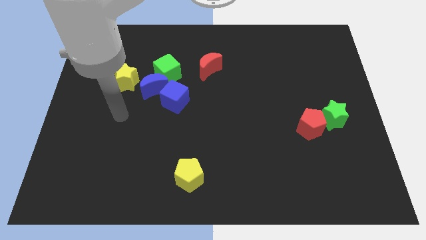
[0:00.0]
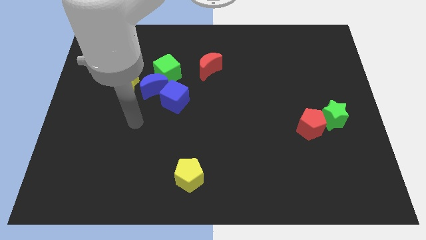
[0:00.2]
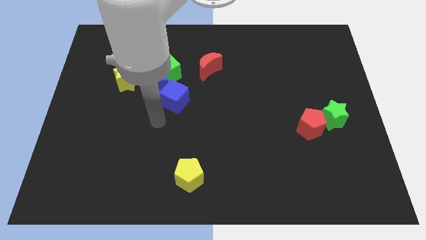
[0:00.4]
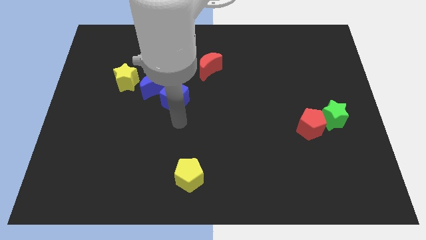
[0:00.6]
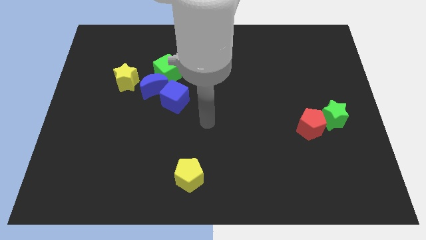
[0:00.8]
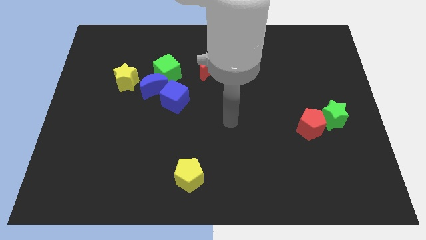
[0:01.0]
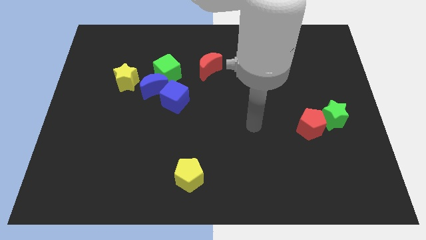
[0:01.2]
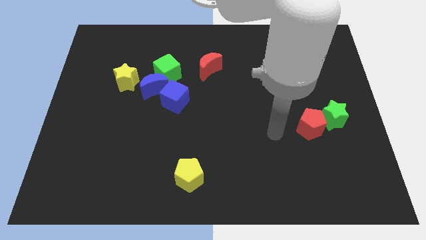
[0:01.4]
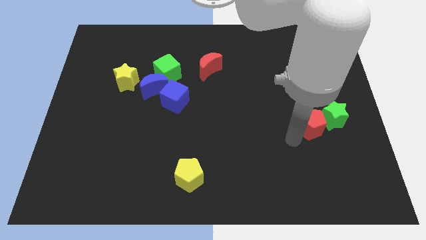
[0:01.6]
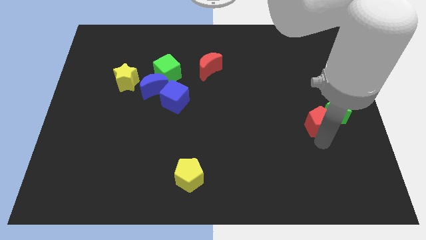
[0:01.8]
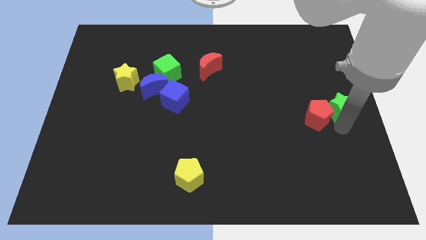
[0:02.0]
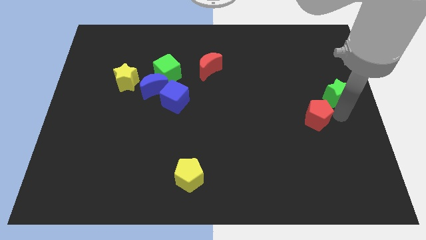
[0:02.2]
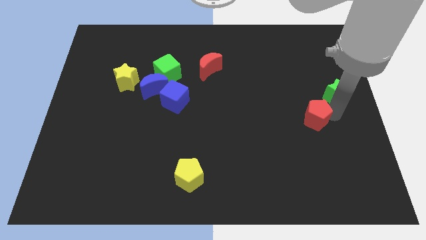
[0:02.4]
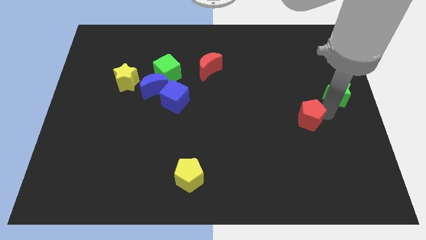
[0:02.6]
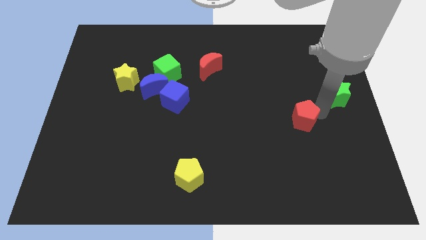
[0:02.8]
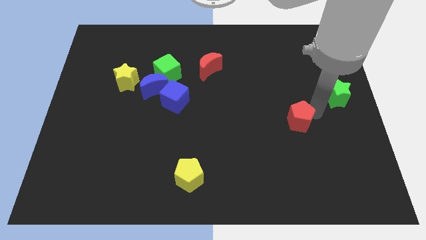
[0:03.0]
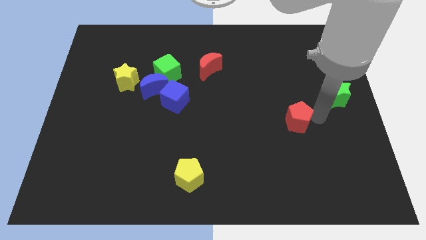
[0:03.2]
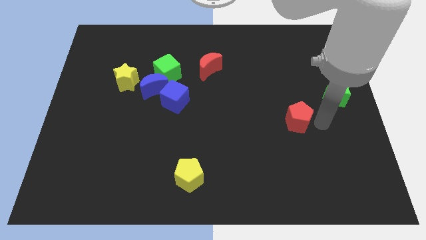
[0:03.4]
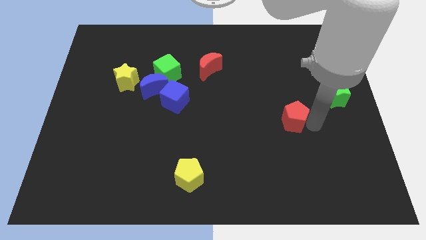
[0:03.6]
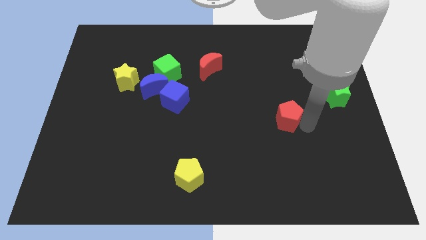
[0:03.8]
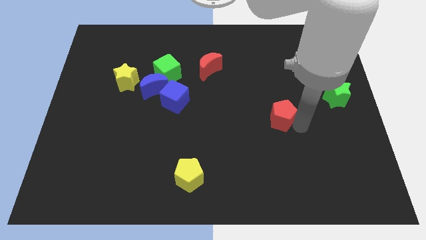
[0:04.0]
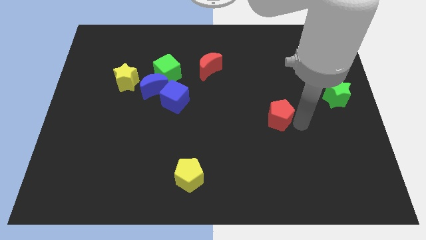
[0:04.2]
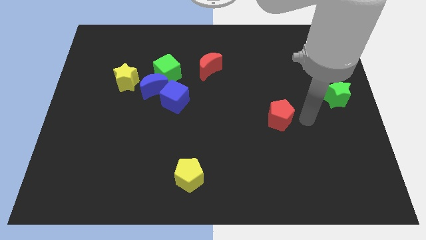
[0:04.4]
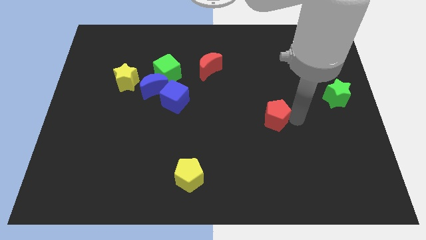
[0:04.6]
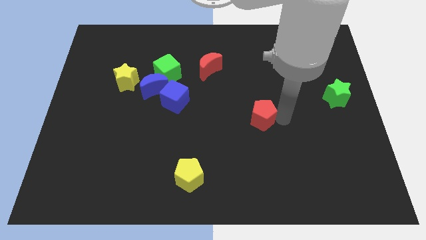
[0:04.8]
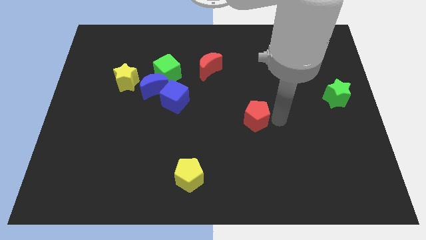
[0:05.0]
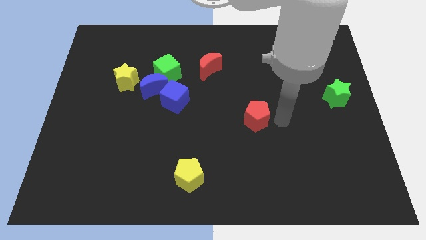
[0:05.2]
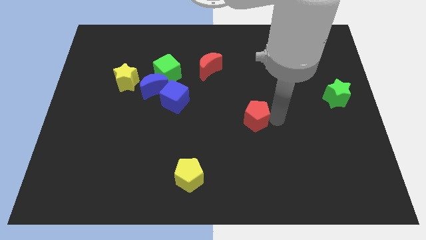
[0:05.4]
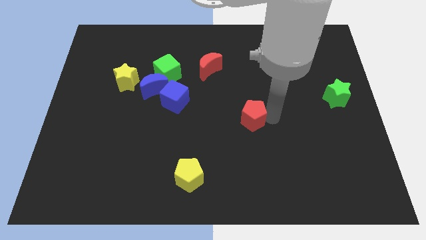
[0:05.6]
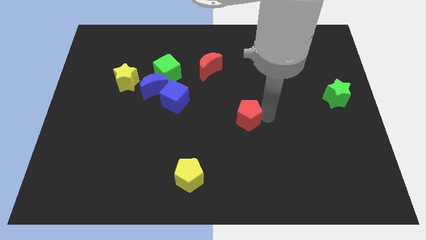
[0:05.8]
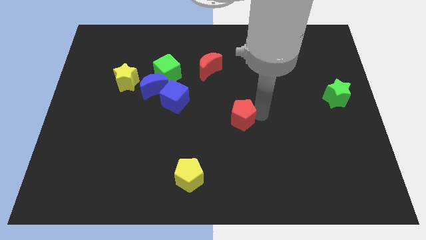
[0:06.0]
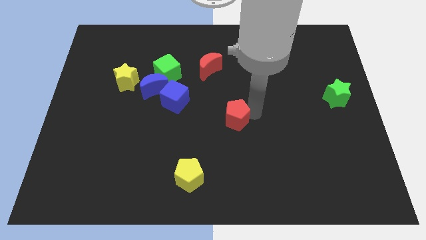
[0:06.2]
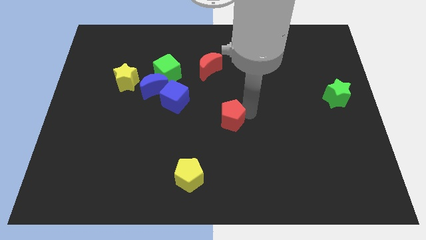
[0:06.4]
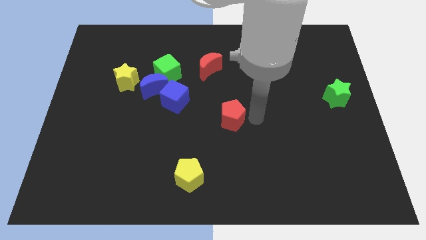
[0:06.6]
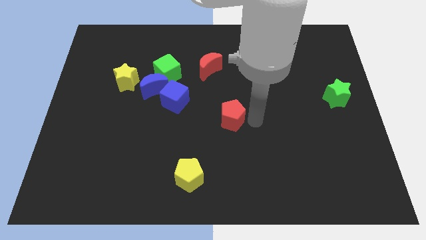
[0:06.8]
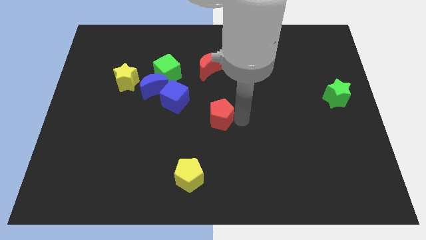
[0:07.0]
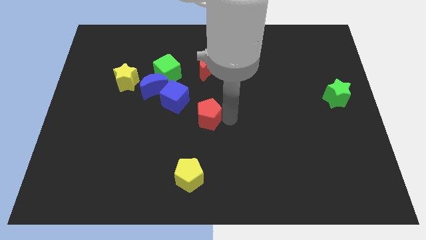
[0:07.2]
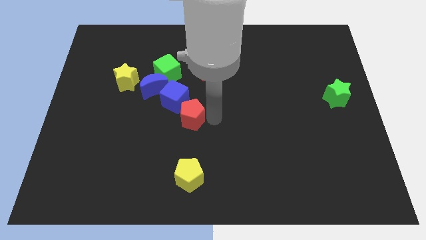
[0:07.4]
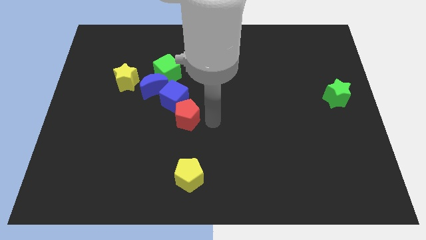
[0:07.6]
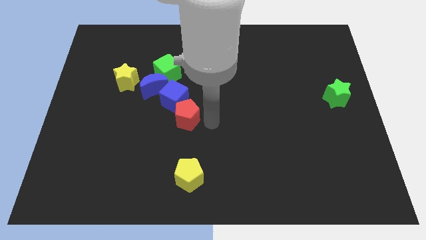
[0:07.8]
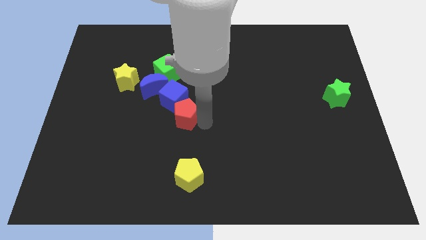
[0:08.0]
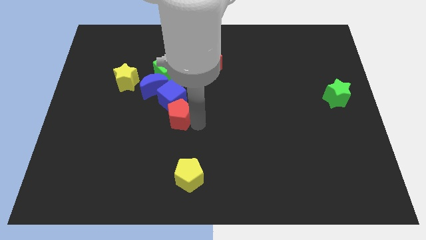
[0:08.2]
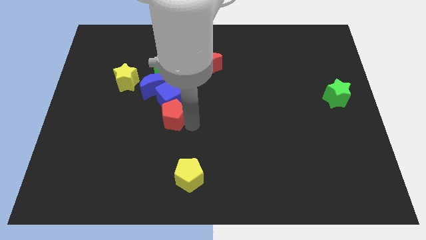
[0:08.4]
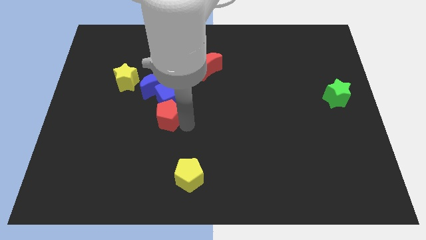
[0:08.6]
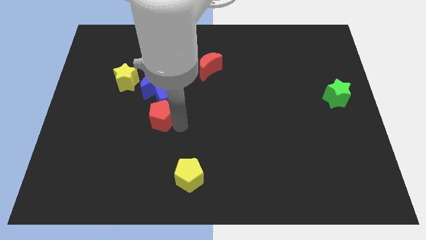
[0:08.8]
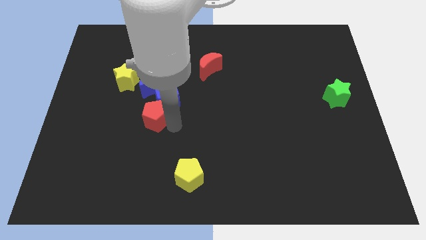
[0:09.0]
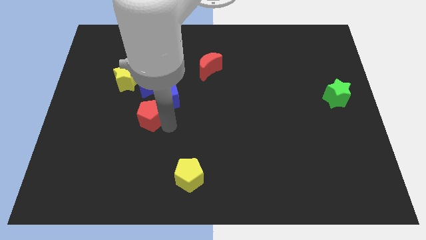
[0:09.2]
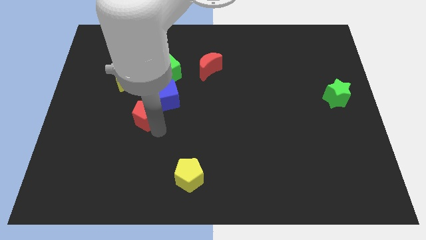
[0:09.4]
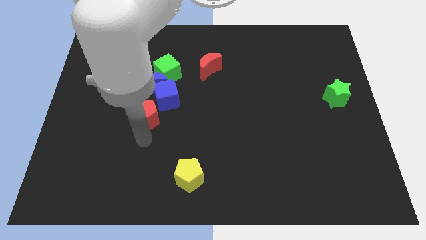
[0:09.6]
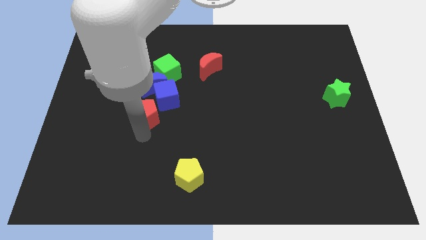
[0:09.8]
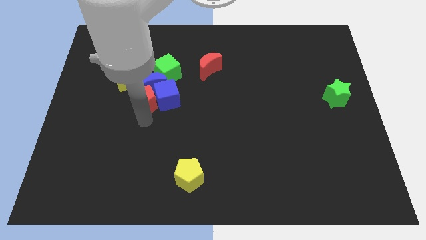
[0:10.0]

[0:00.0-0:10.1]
move the red pentagon to the blue moon

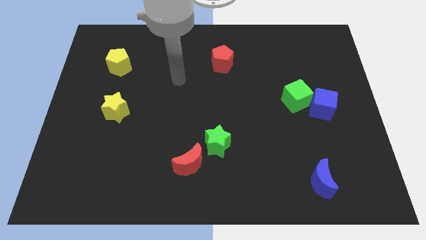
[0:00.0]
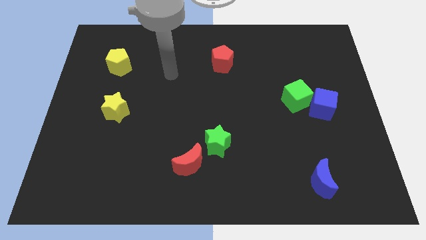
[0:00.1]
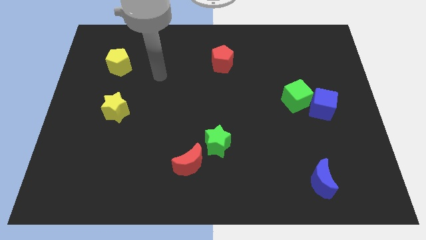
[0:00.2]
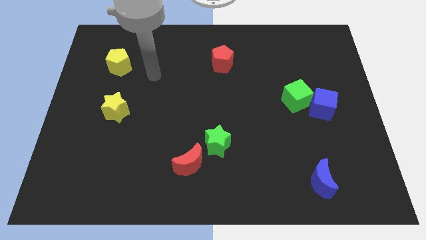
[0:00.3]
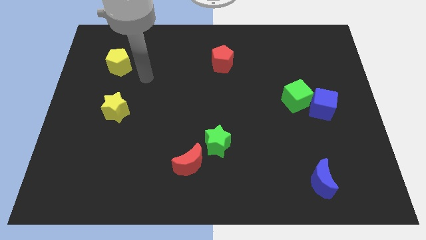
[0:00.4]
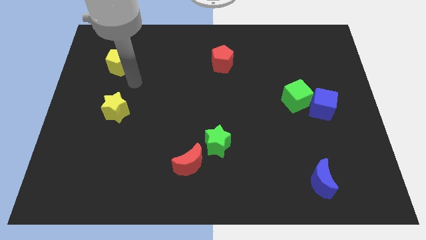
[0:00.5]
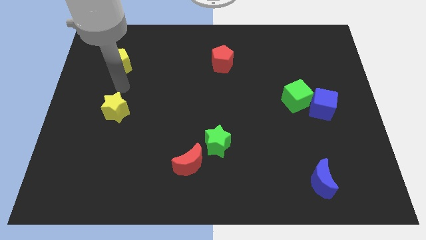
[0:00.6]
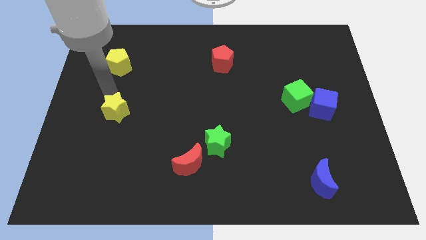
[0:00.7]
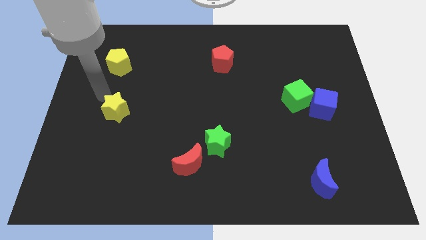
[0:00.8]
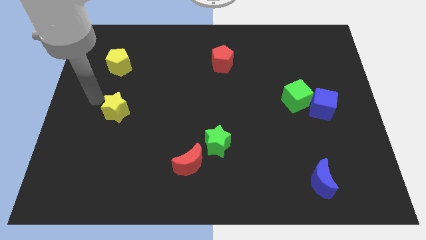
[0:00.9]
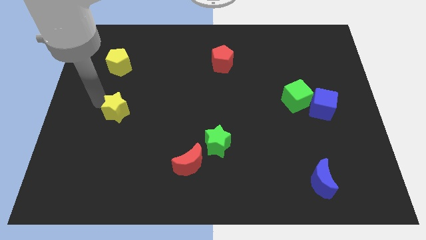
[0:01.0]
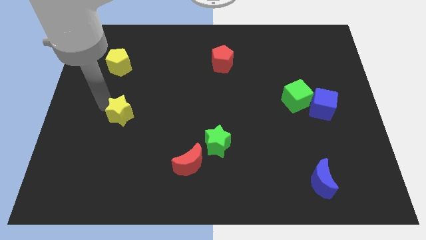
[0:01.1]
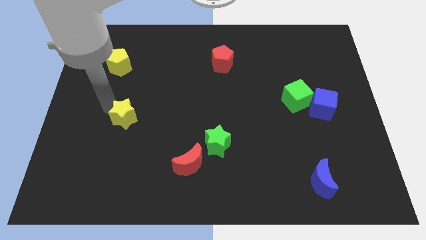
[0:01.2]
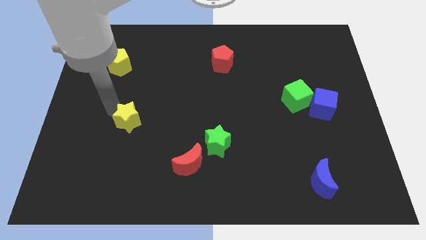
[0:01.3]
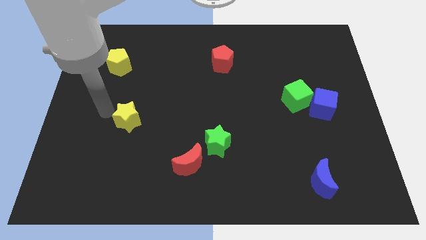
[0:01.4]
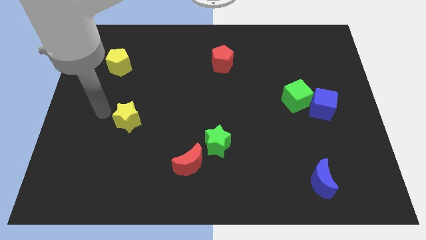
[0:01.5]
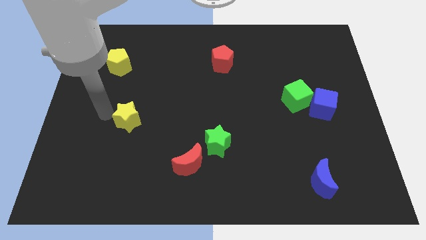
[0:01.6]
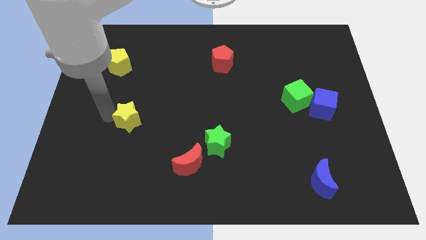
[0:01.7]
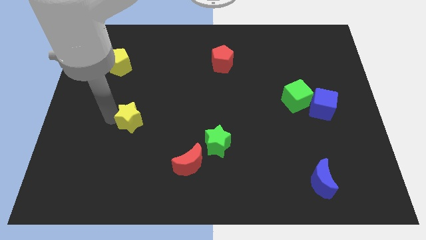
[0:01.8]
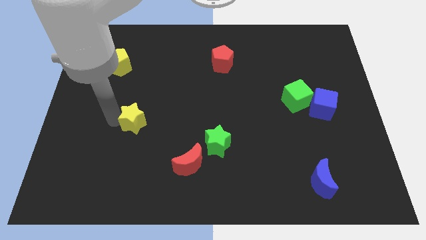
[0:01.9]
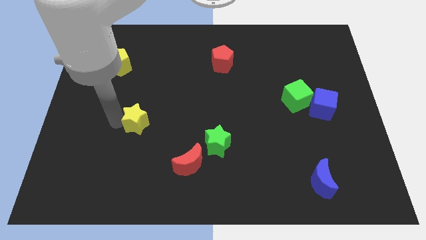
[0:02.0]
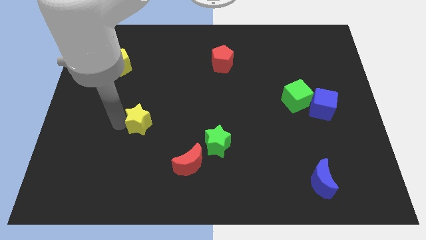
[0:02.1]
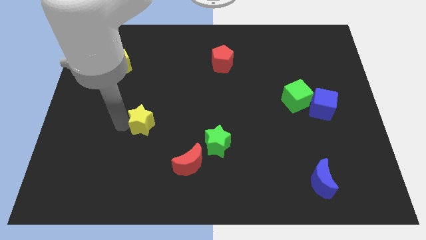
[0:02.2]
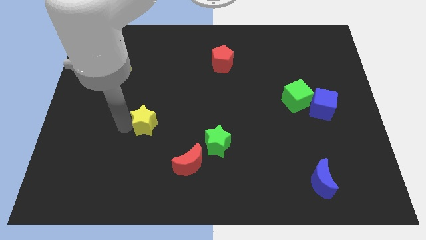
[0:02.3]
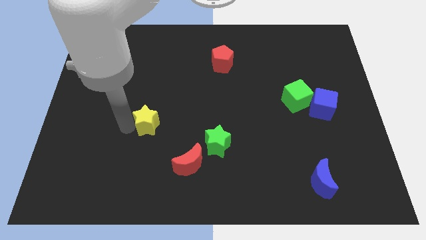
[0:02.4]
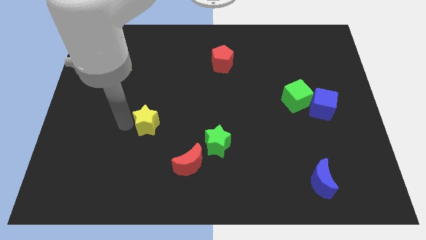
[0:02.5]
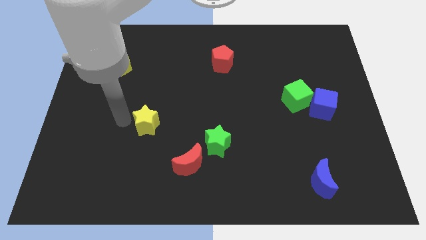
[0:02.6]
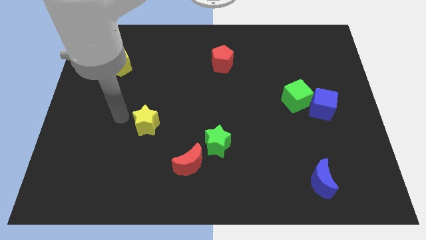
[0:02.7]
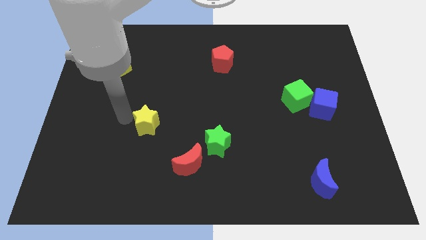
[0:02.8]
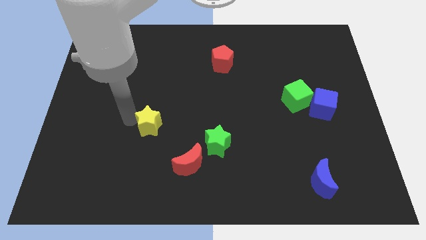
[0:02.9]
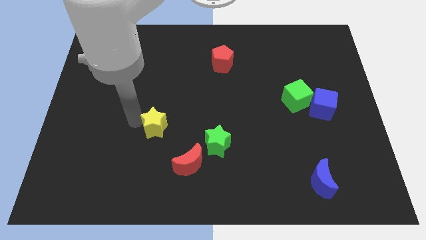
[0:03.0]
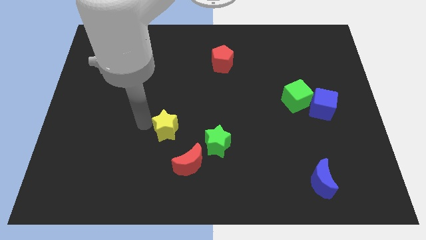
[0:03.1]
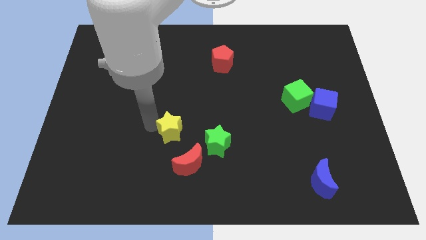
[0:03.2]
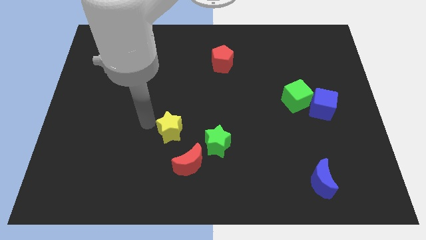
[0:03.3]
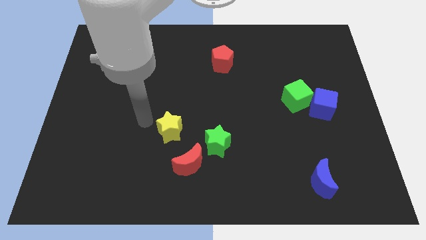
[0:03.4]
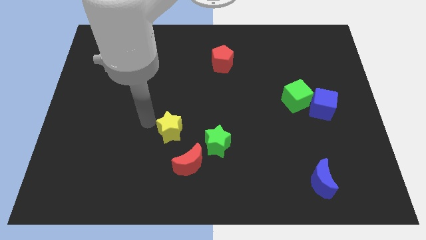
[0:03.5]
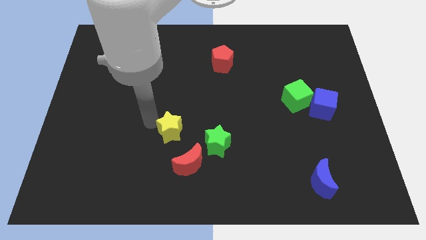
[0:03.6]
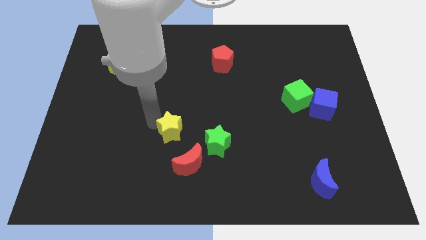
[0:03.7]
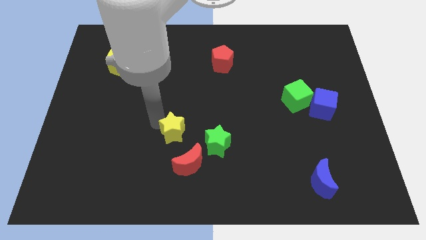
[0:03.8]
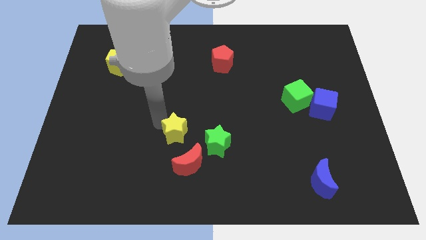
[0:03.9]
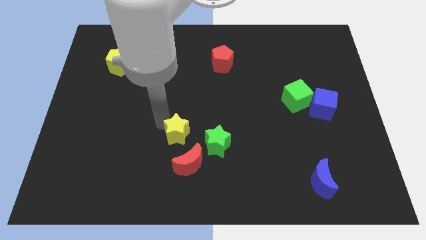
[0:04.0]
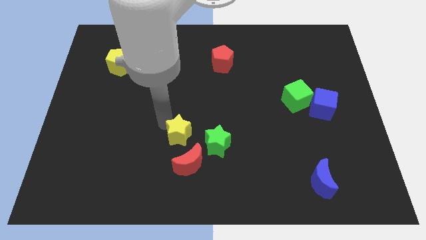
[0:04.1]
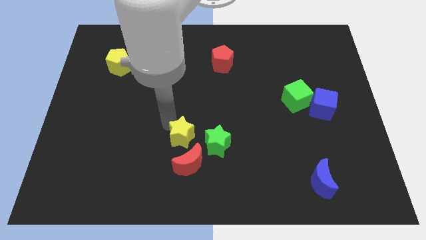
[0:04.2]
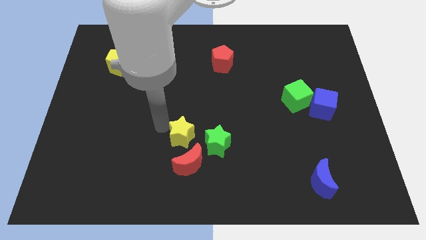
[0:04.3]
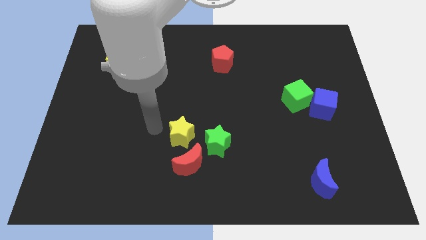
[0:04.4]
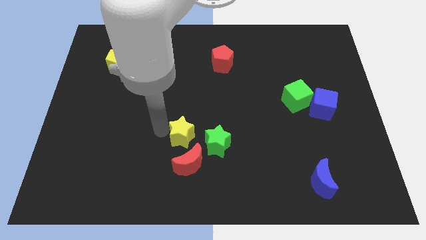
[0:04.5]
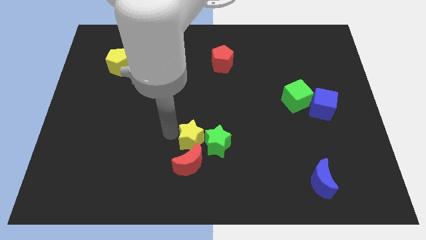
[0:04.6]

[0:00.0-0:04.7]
move the yellow star towards the green star
